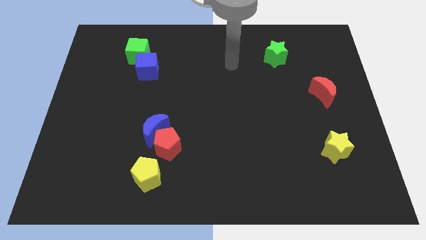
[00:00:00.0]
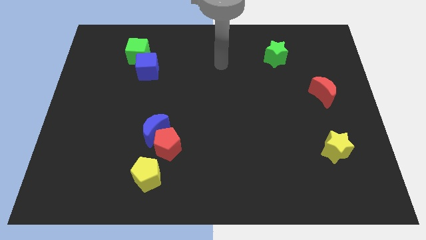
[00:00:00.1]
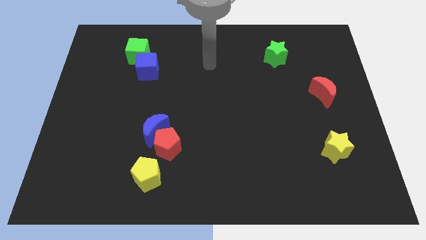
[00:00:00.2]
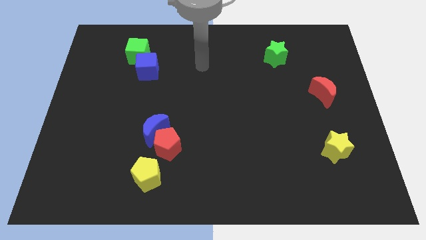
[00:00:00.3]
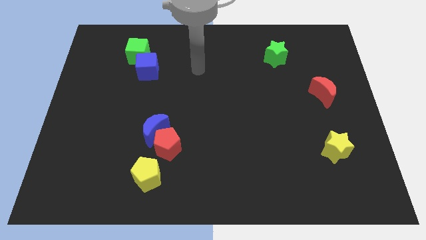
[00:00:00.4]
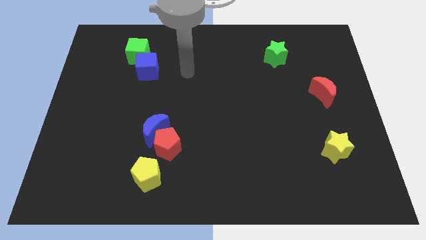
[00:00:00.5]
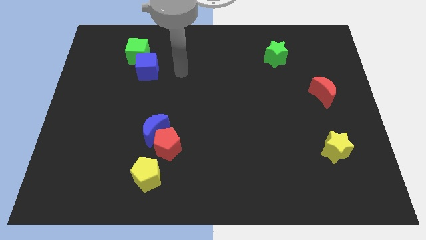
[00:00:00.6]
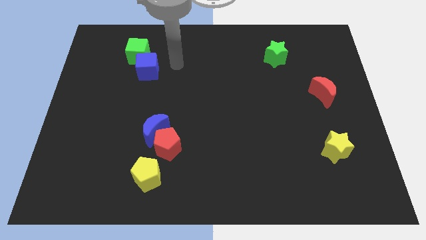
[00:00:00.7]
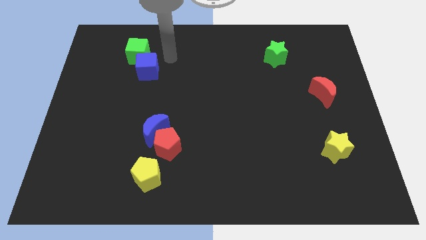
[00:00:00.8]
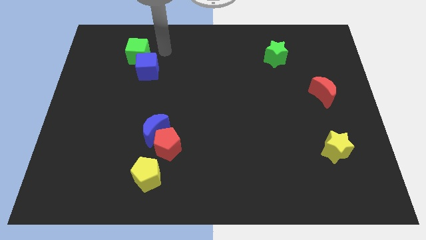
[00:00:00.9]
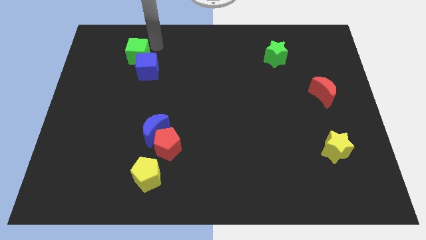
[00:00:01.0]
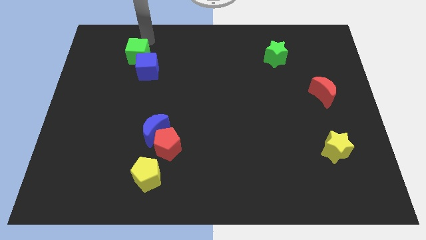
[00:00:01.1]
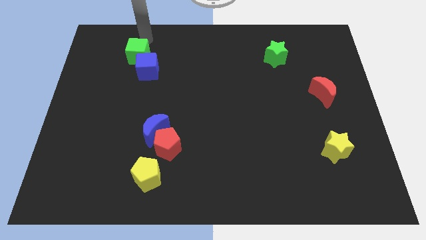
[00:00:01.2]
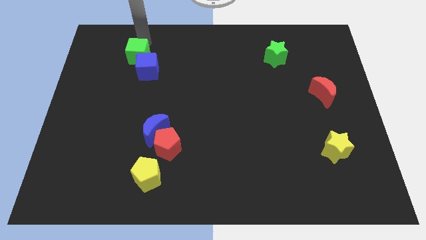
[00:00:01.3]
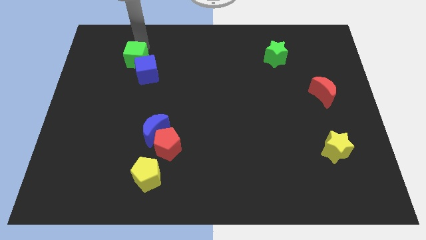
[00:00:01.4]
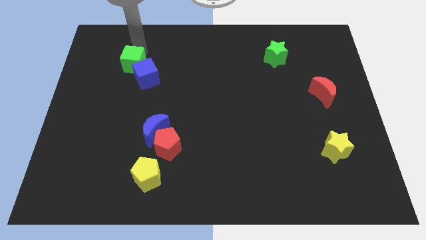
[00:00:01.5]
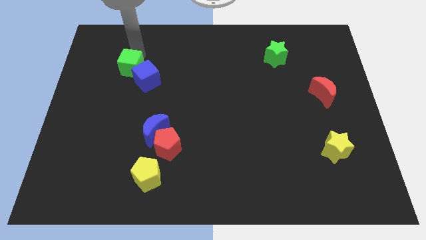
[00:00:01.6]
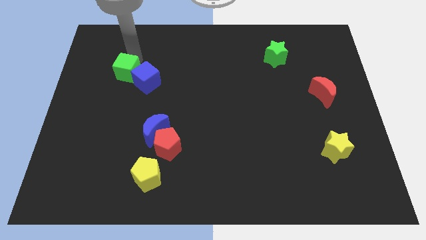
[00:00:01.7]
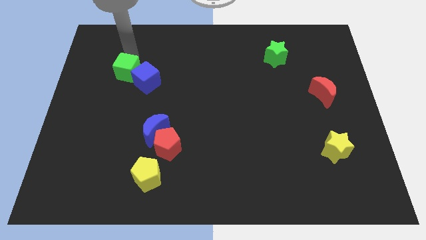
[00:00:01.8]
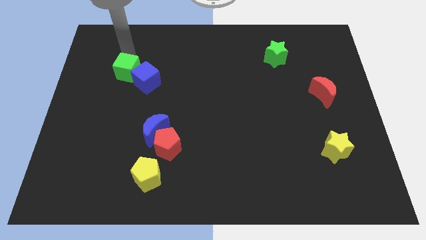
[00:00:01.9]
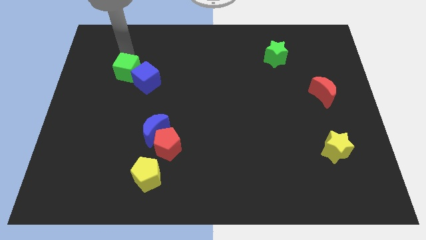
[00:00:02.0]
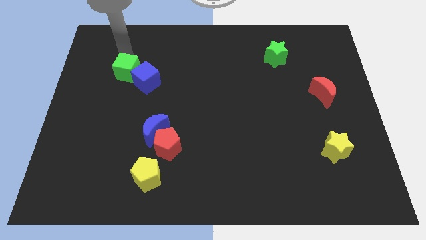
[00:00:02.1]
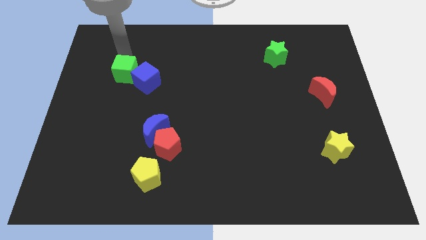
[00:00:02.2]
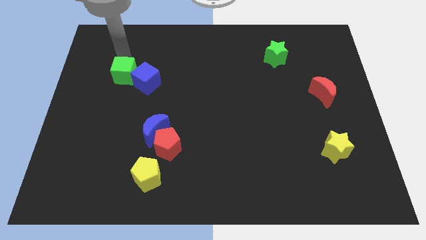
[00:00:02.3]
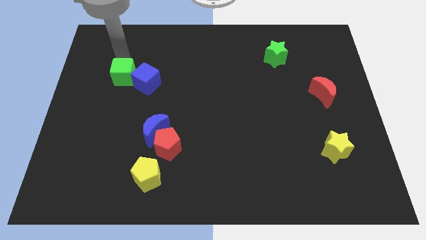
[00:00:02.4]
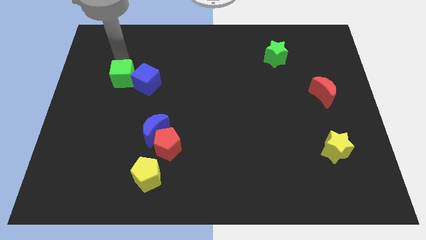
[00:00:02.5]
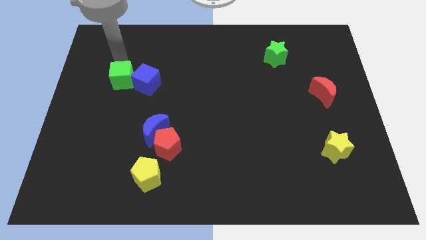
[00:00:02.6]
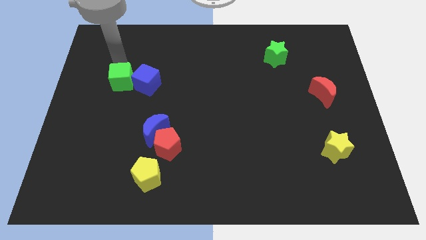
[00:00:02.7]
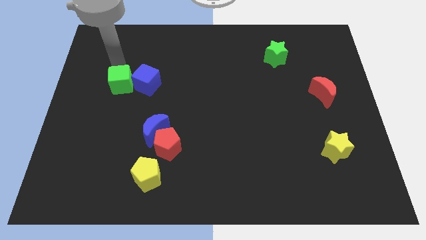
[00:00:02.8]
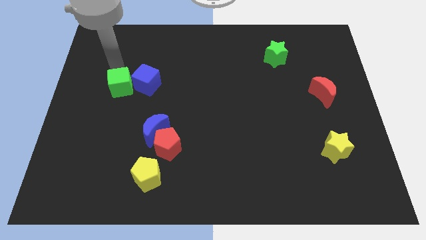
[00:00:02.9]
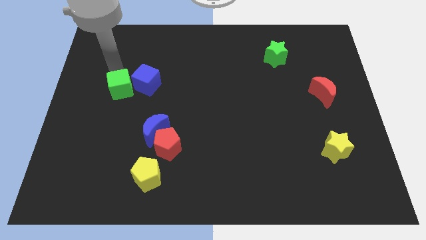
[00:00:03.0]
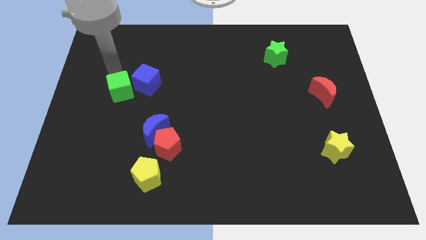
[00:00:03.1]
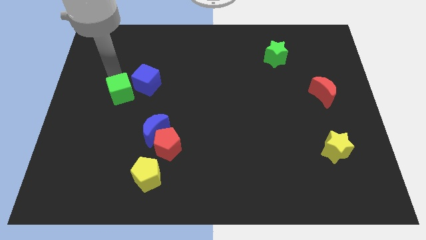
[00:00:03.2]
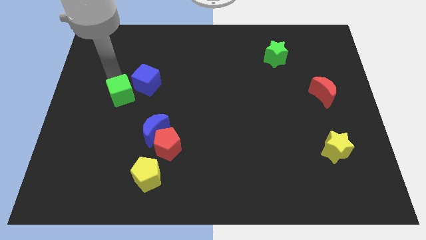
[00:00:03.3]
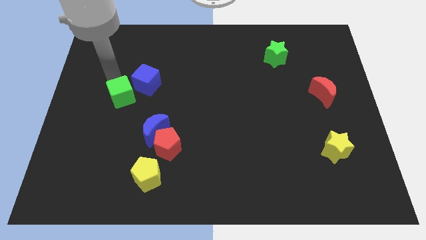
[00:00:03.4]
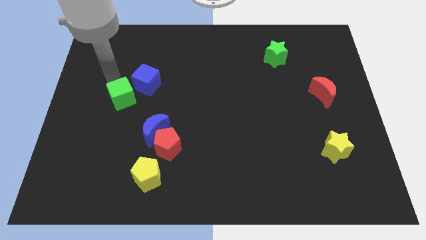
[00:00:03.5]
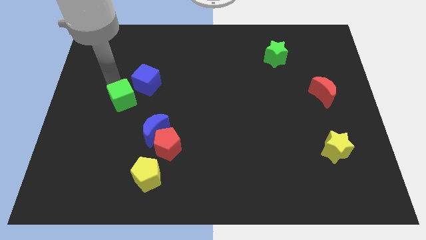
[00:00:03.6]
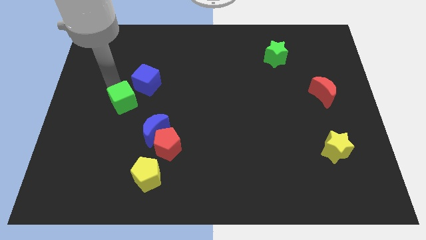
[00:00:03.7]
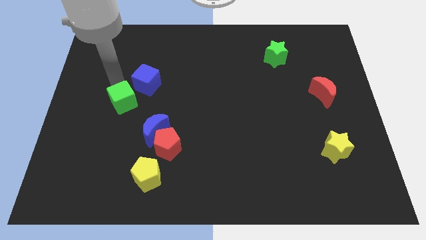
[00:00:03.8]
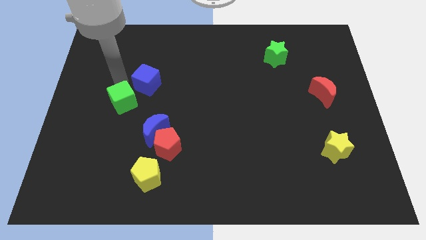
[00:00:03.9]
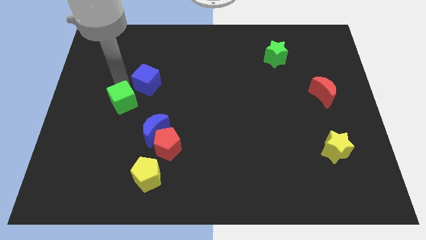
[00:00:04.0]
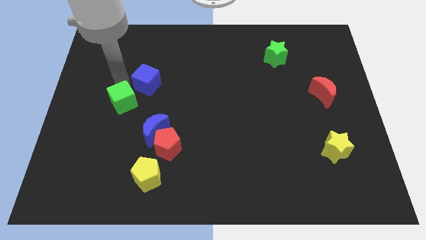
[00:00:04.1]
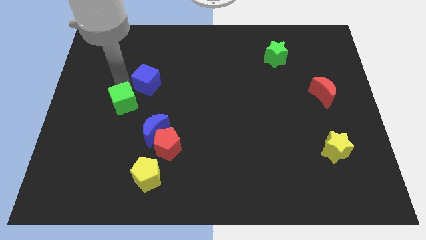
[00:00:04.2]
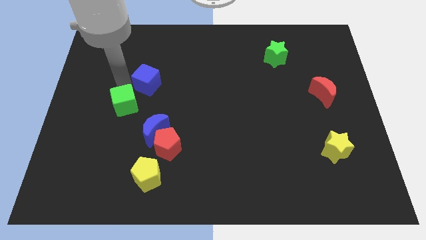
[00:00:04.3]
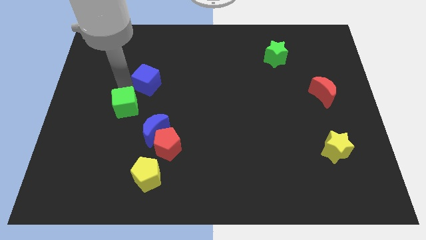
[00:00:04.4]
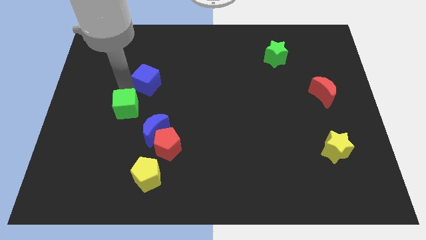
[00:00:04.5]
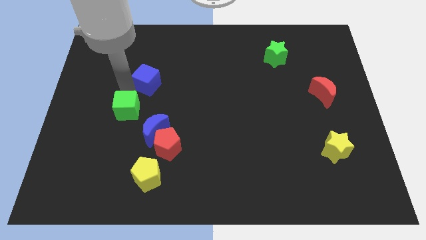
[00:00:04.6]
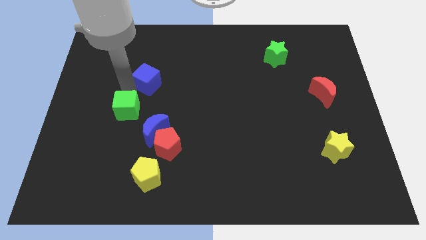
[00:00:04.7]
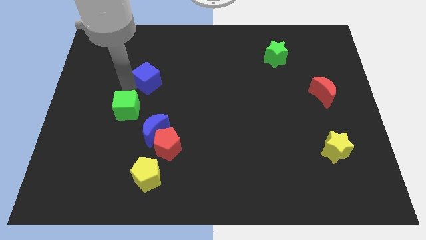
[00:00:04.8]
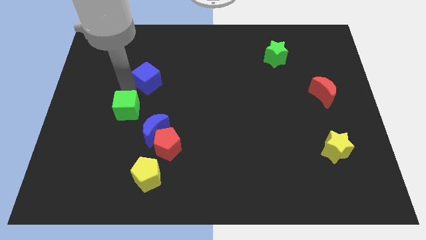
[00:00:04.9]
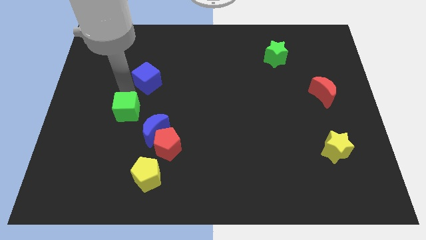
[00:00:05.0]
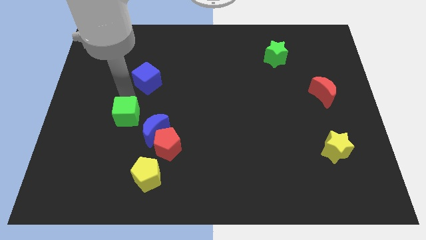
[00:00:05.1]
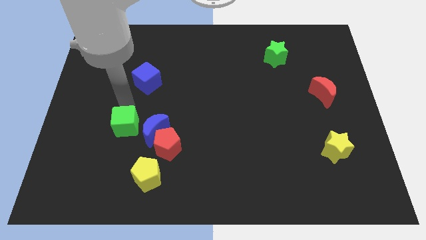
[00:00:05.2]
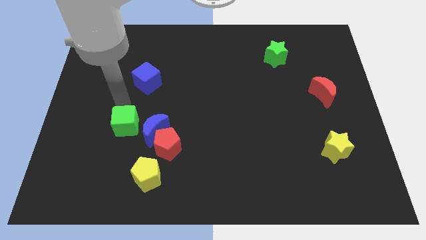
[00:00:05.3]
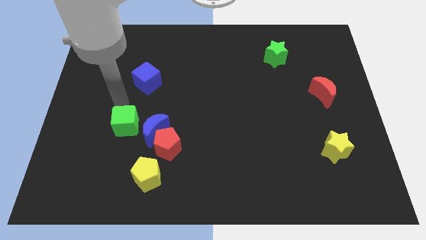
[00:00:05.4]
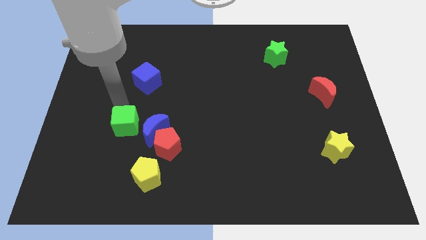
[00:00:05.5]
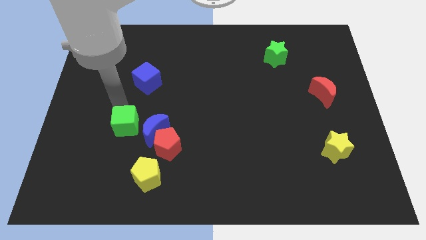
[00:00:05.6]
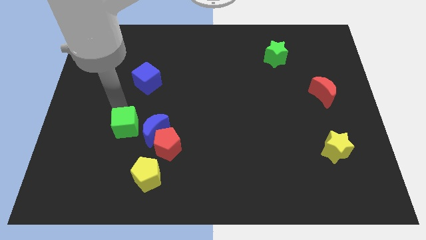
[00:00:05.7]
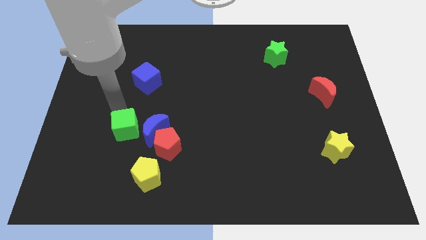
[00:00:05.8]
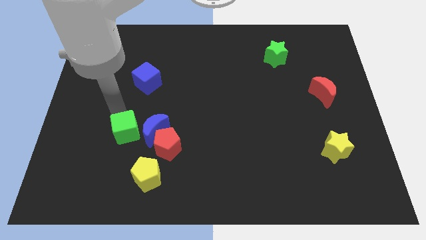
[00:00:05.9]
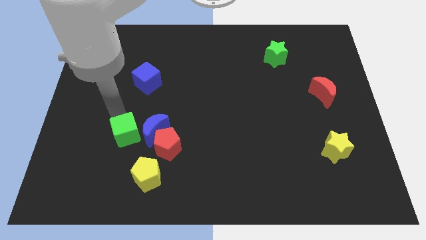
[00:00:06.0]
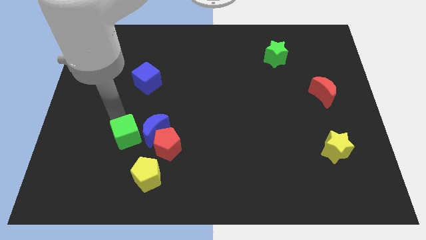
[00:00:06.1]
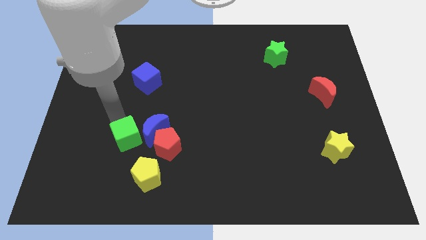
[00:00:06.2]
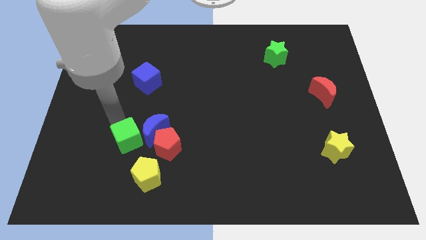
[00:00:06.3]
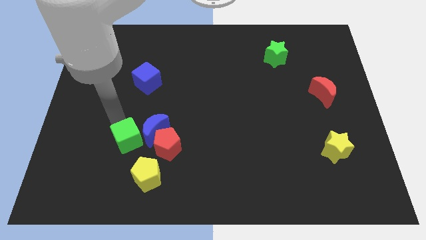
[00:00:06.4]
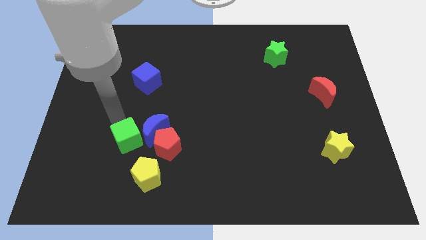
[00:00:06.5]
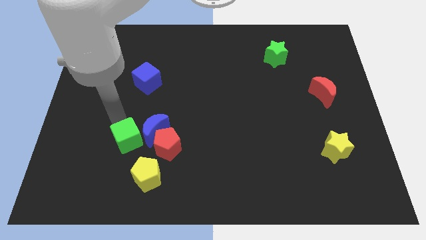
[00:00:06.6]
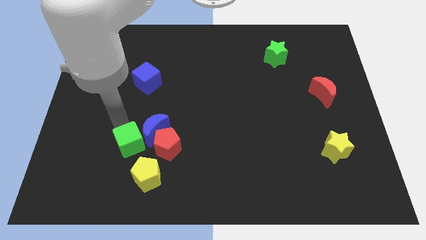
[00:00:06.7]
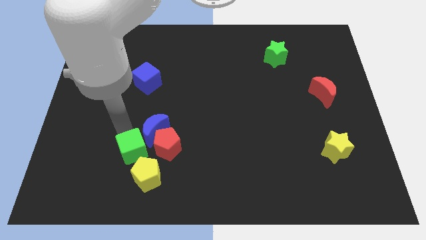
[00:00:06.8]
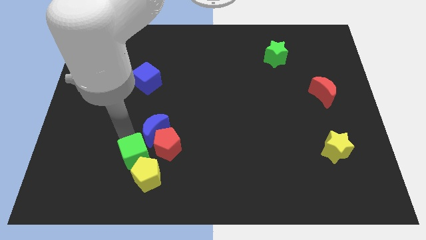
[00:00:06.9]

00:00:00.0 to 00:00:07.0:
move the green cube close to the yellow pentagon
